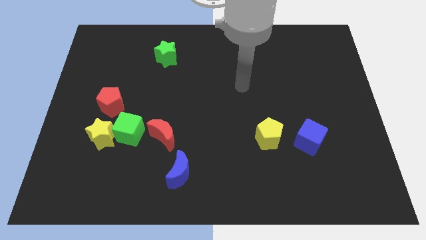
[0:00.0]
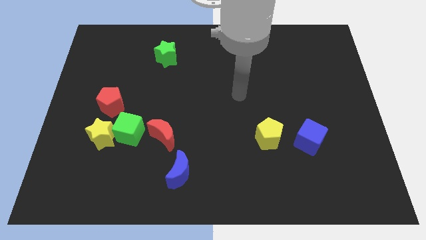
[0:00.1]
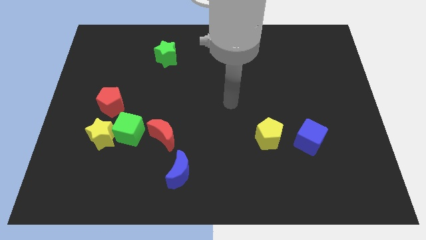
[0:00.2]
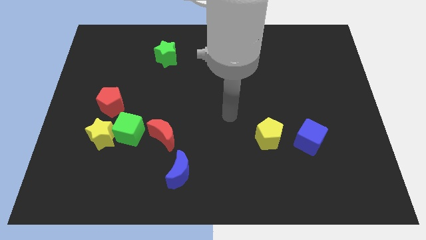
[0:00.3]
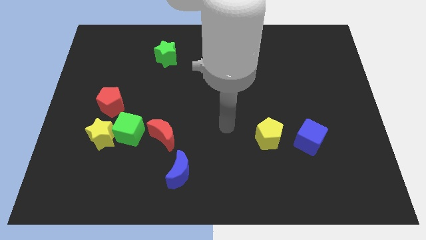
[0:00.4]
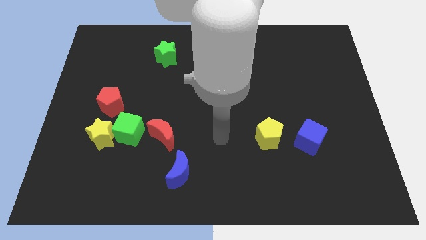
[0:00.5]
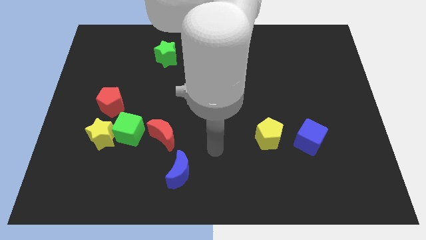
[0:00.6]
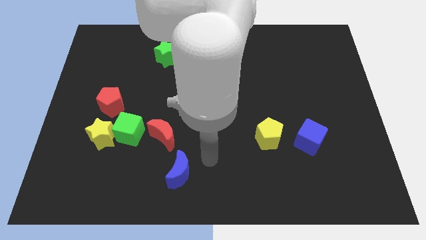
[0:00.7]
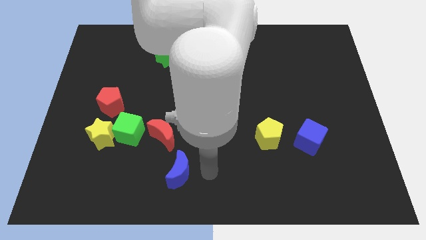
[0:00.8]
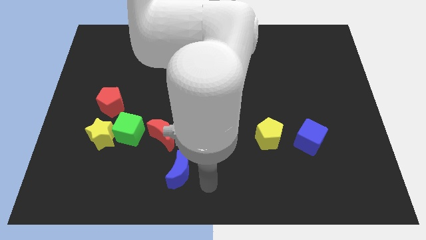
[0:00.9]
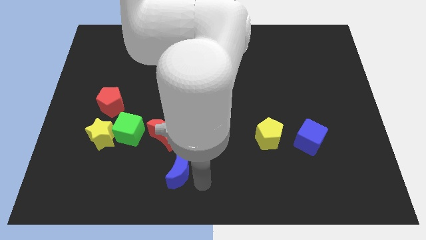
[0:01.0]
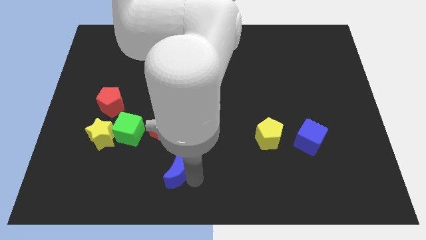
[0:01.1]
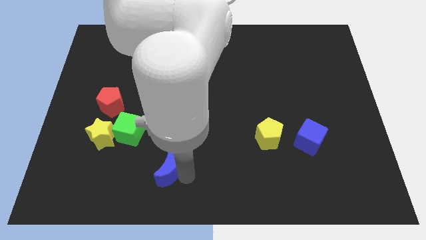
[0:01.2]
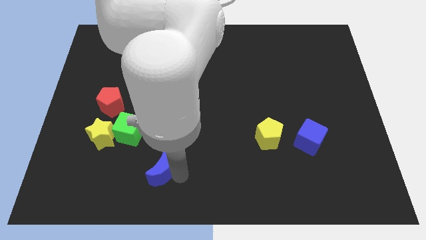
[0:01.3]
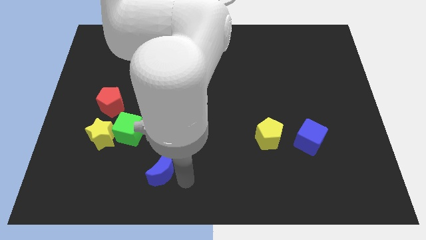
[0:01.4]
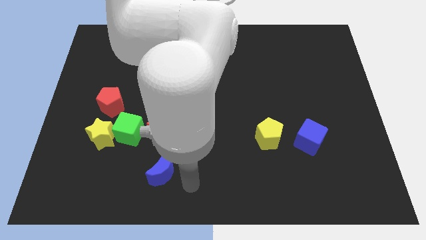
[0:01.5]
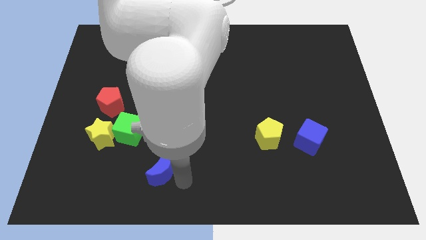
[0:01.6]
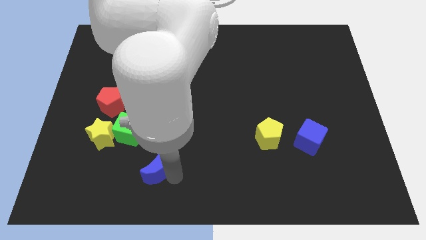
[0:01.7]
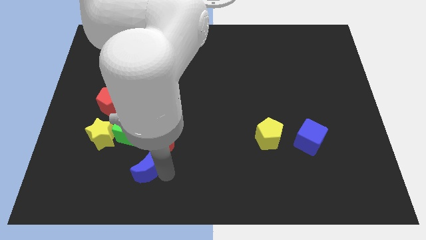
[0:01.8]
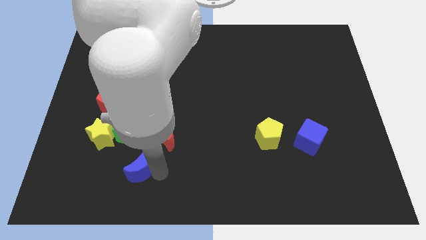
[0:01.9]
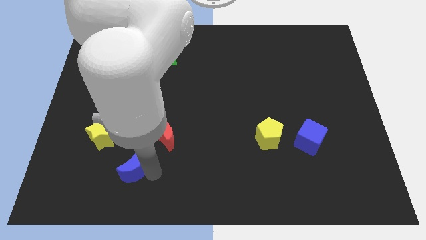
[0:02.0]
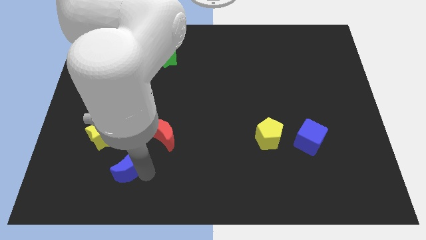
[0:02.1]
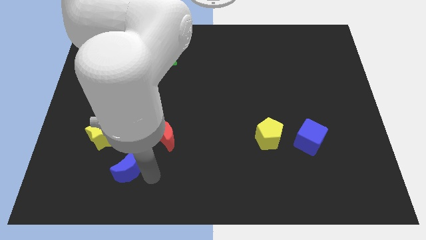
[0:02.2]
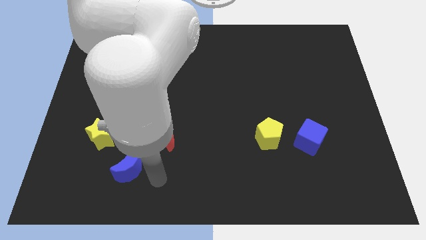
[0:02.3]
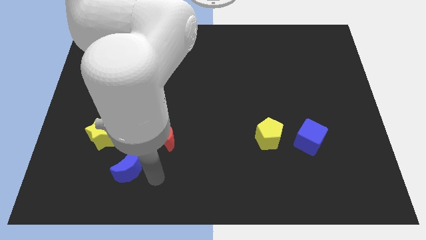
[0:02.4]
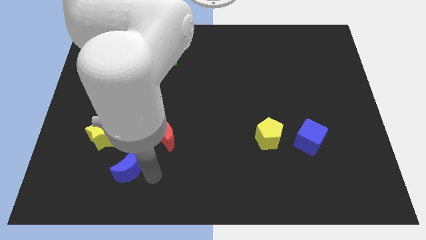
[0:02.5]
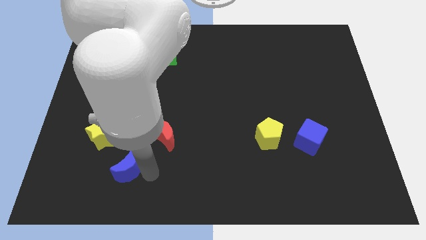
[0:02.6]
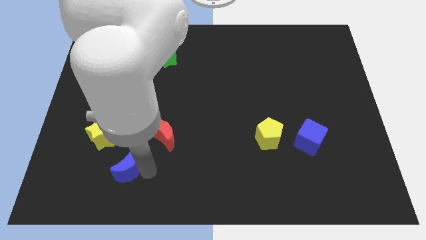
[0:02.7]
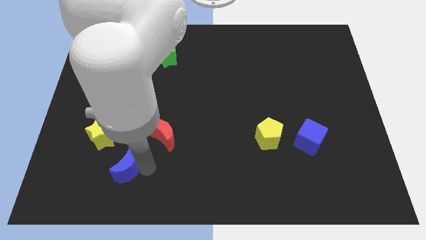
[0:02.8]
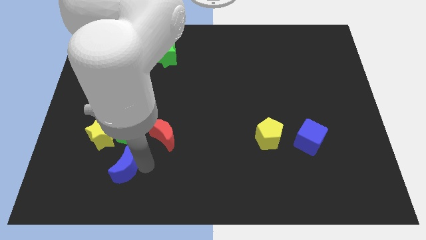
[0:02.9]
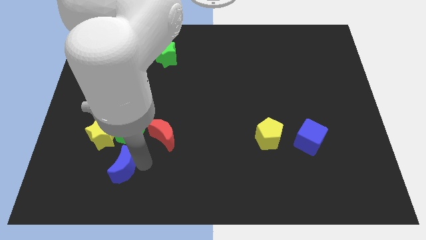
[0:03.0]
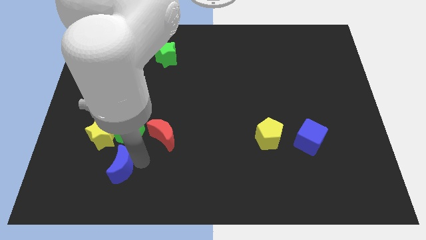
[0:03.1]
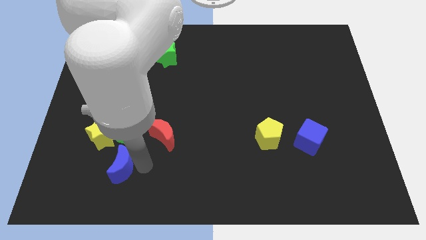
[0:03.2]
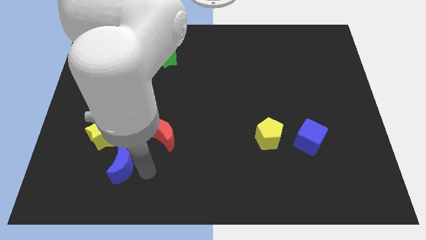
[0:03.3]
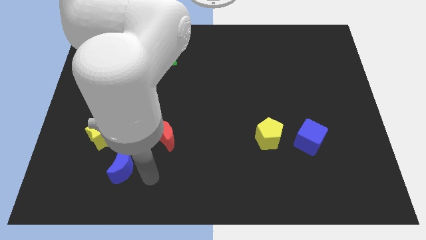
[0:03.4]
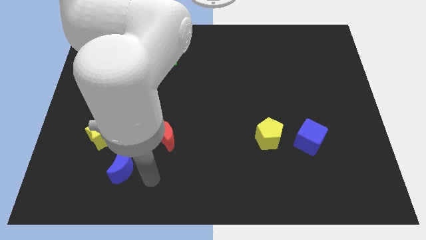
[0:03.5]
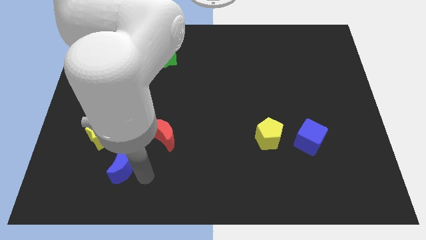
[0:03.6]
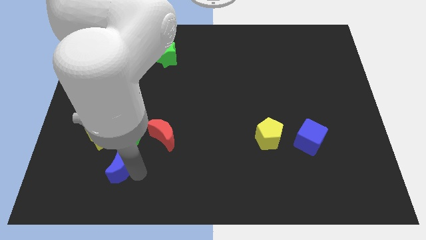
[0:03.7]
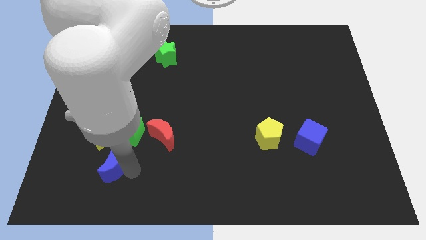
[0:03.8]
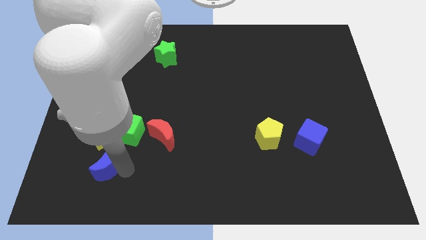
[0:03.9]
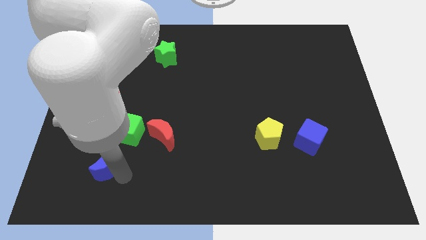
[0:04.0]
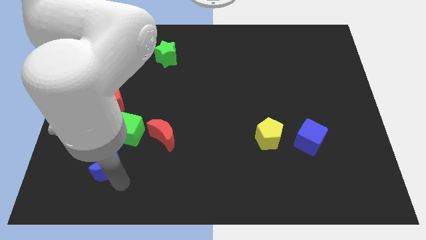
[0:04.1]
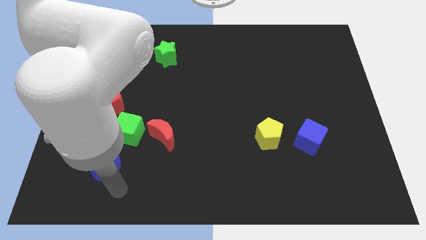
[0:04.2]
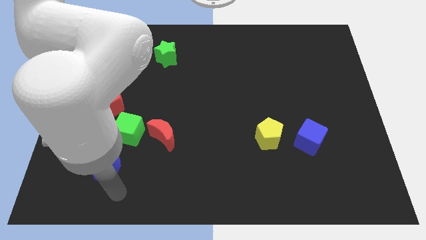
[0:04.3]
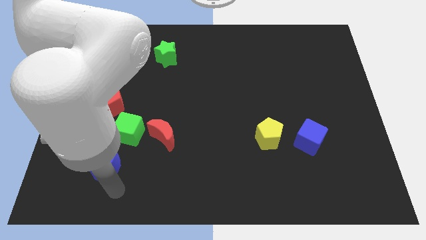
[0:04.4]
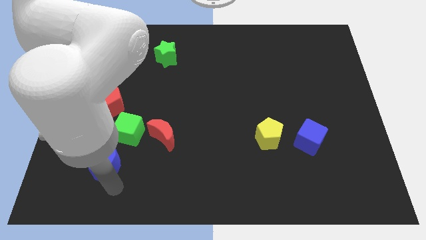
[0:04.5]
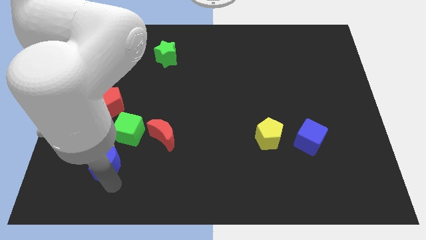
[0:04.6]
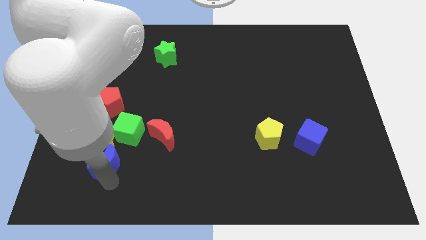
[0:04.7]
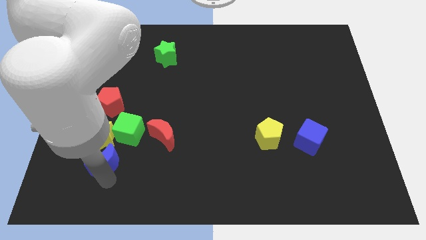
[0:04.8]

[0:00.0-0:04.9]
put the blue moon to the bottom side of the red pentagon

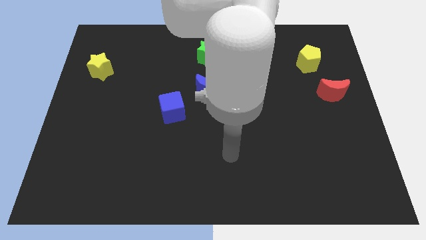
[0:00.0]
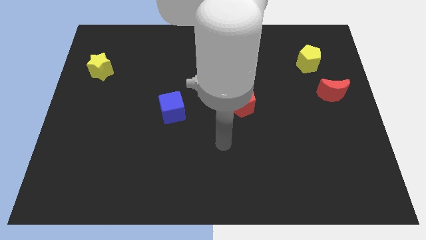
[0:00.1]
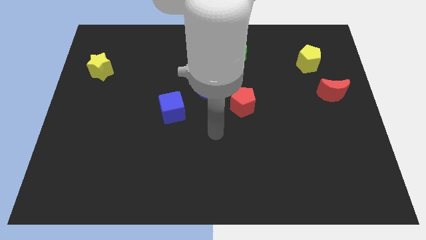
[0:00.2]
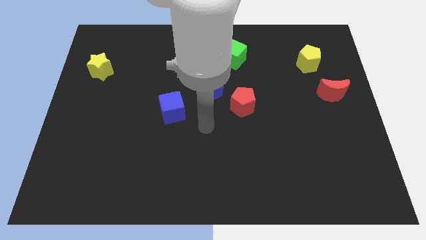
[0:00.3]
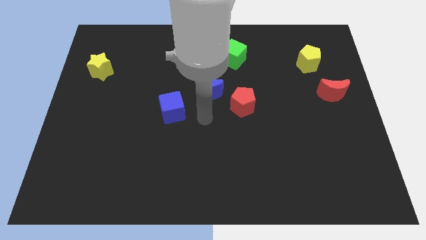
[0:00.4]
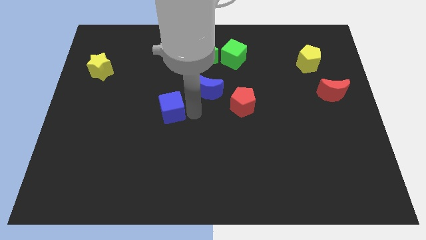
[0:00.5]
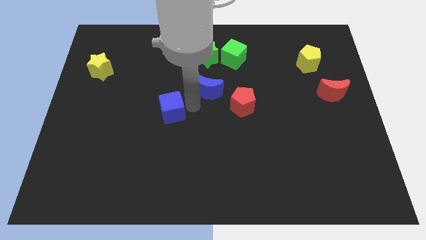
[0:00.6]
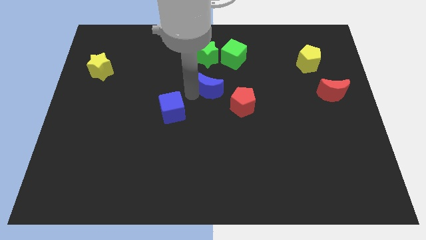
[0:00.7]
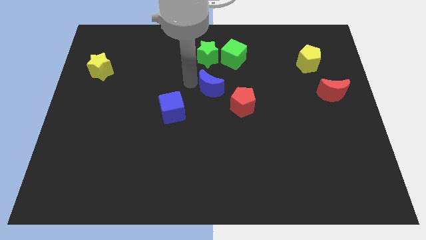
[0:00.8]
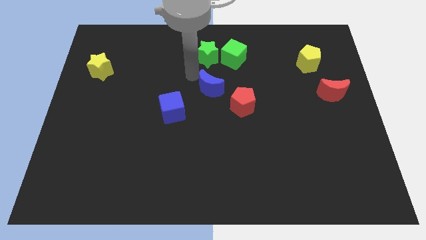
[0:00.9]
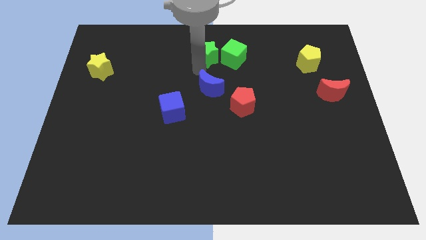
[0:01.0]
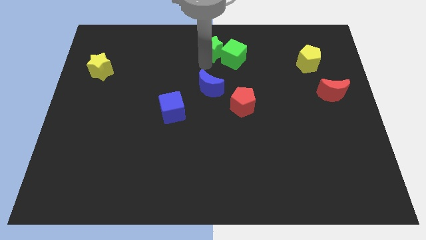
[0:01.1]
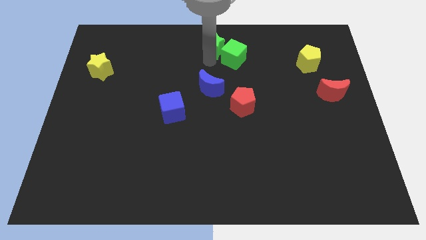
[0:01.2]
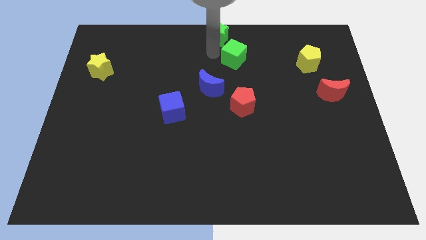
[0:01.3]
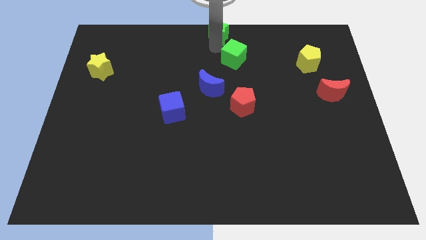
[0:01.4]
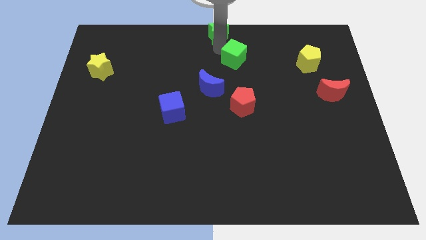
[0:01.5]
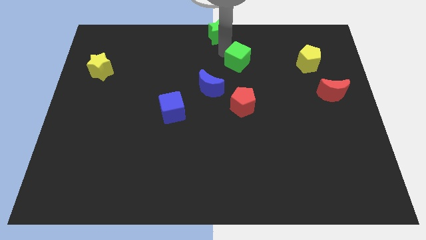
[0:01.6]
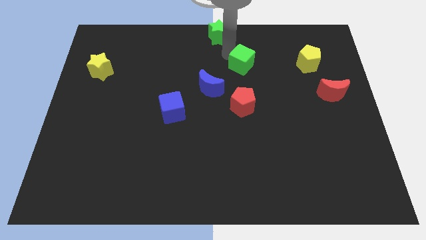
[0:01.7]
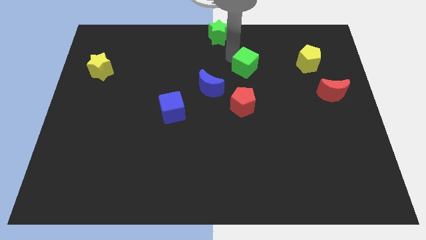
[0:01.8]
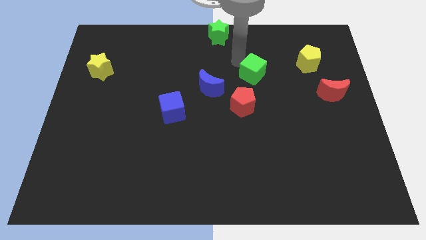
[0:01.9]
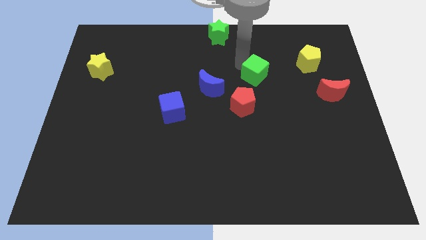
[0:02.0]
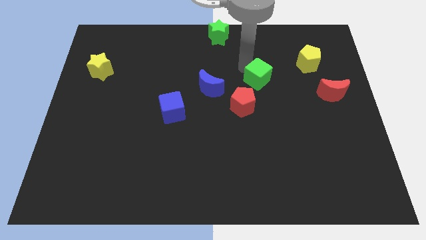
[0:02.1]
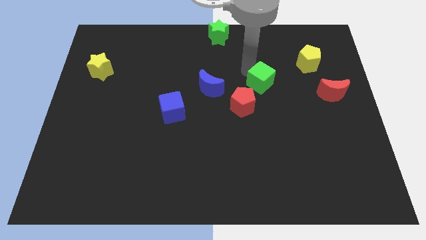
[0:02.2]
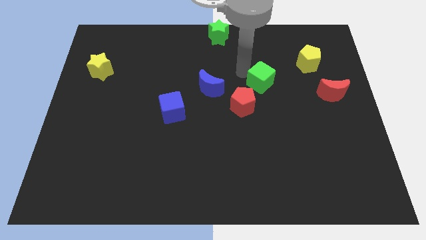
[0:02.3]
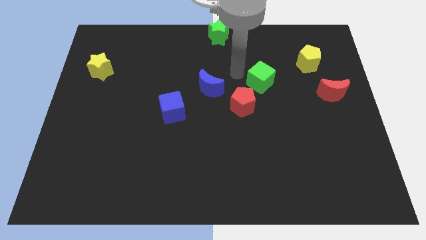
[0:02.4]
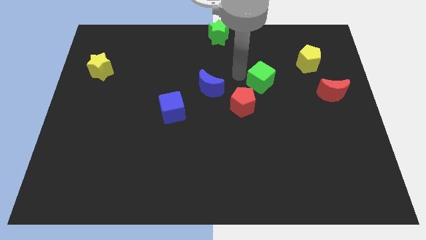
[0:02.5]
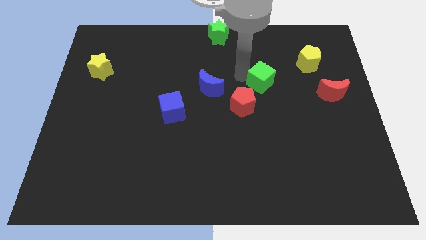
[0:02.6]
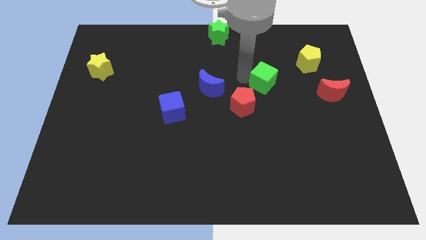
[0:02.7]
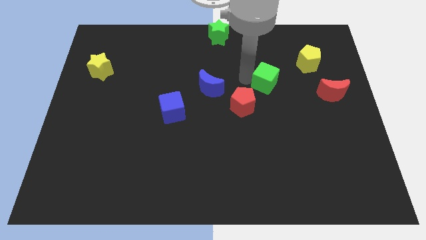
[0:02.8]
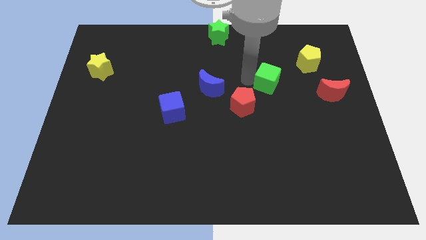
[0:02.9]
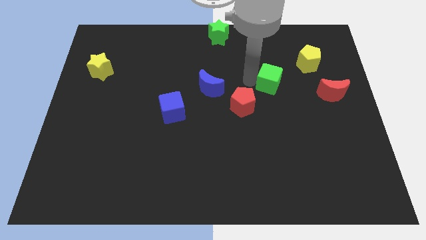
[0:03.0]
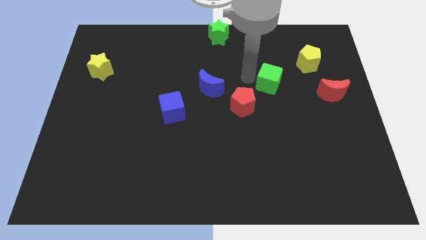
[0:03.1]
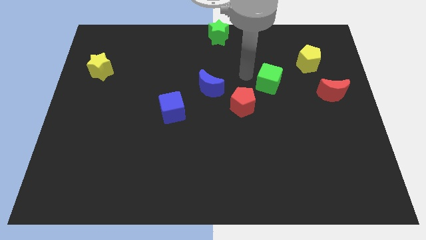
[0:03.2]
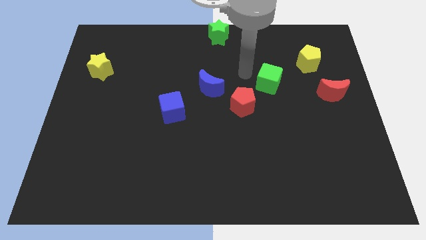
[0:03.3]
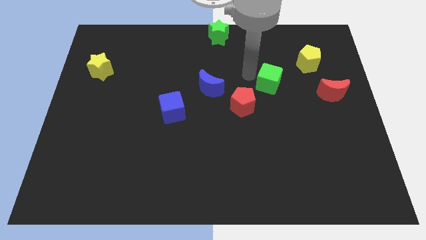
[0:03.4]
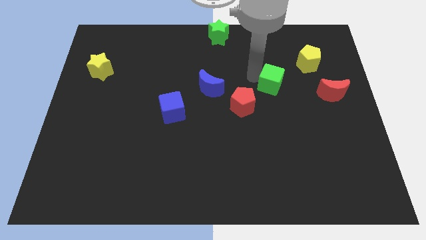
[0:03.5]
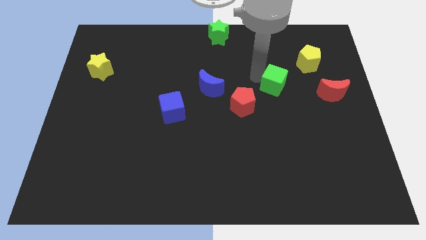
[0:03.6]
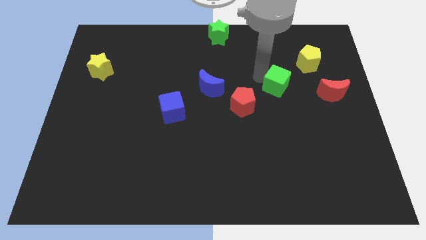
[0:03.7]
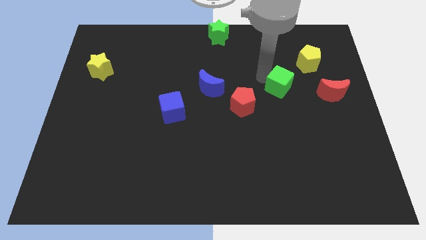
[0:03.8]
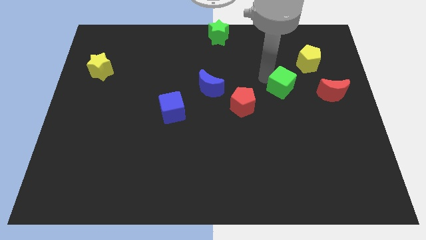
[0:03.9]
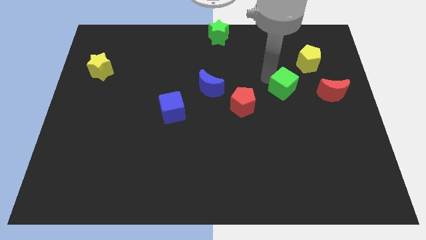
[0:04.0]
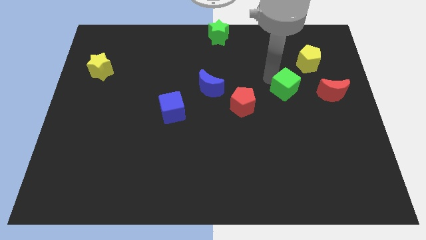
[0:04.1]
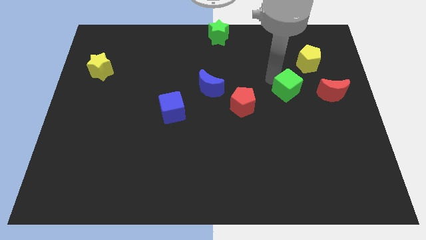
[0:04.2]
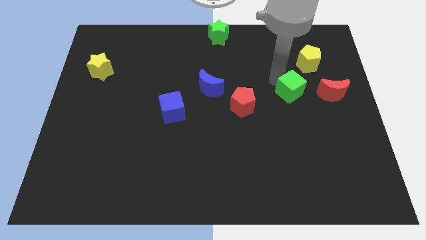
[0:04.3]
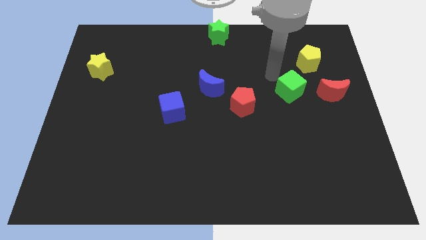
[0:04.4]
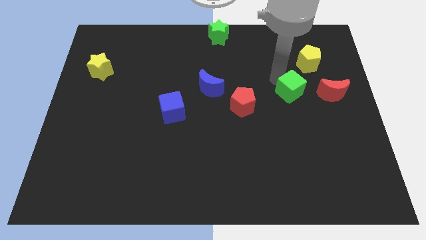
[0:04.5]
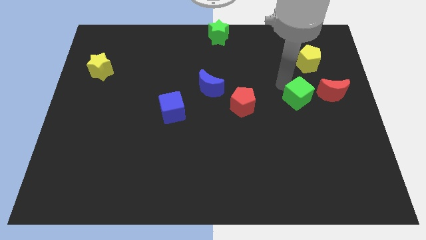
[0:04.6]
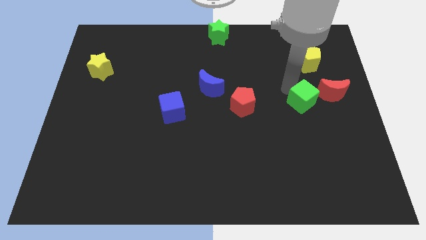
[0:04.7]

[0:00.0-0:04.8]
move the green cube to the bottom left of the red moon
